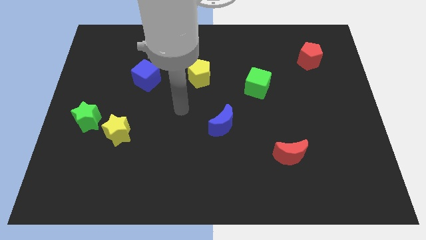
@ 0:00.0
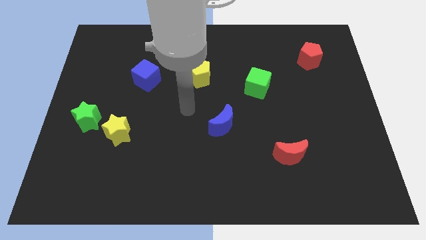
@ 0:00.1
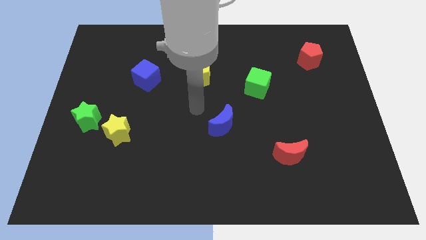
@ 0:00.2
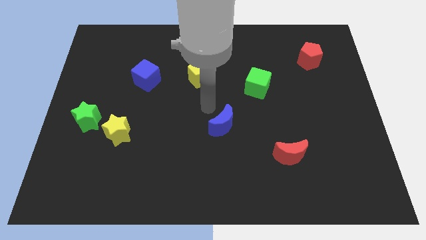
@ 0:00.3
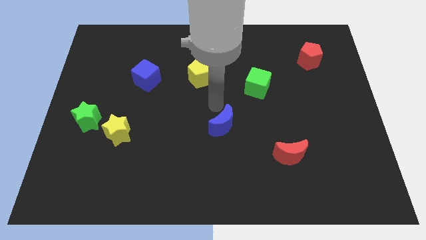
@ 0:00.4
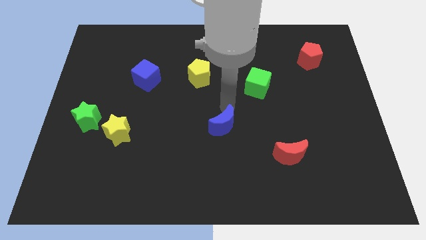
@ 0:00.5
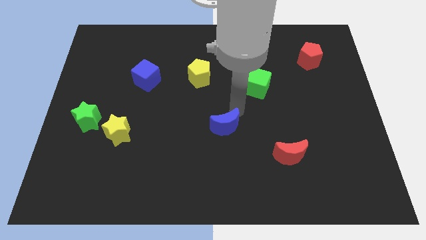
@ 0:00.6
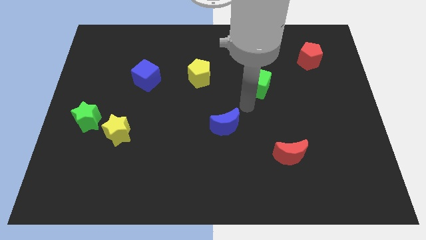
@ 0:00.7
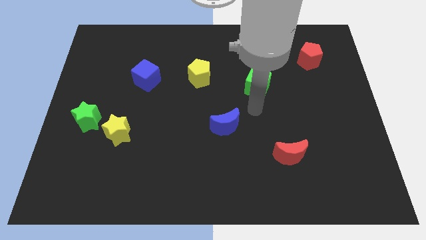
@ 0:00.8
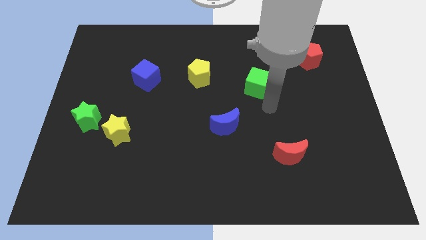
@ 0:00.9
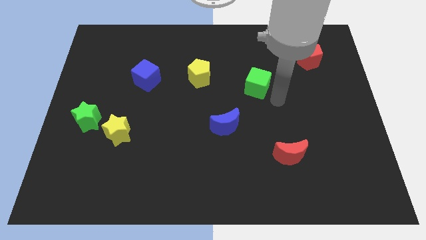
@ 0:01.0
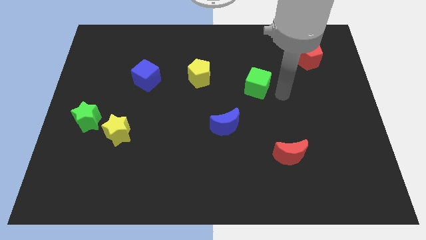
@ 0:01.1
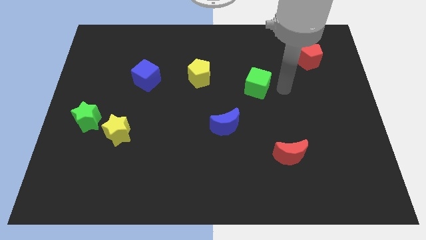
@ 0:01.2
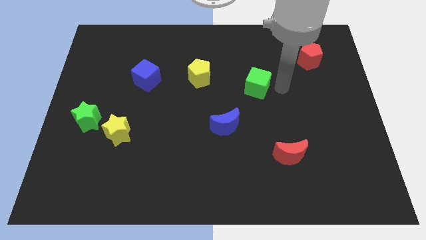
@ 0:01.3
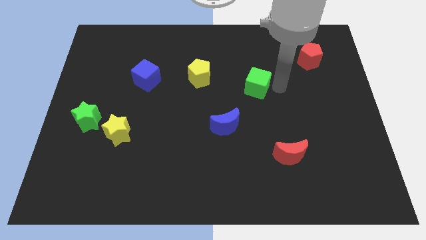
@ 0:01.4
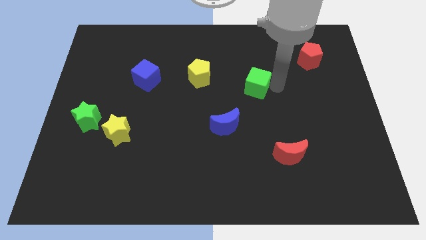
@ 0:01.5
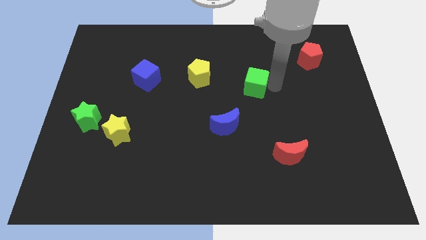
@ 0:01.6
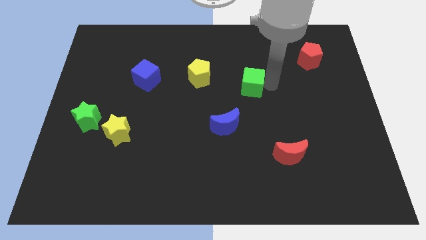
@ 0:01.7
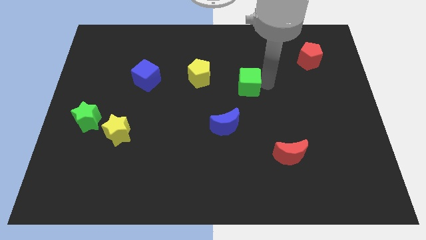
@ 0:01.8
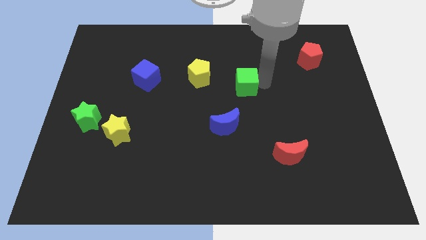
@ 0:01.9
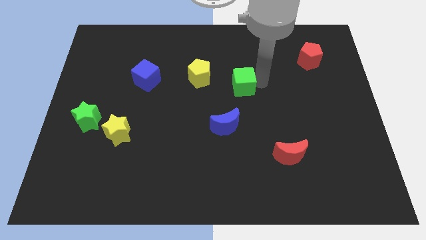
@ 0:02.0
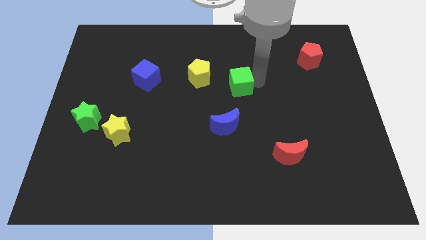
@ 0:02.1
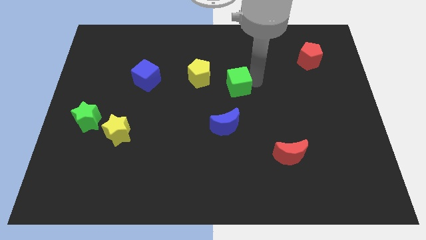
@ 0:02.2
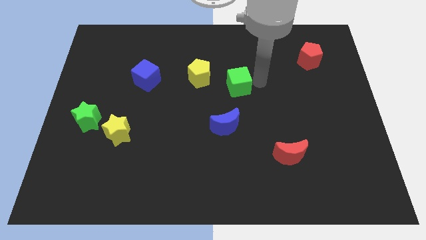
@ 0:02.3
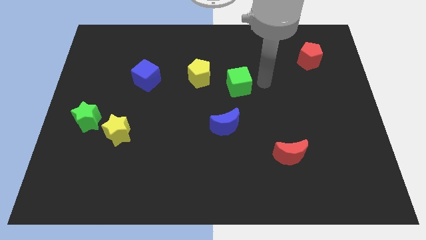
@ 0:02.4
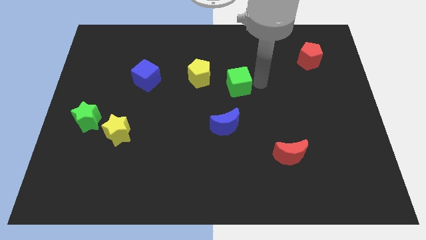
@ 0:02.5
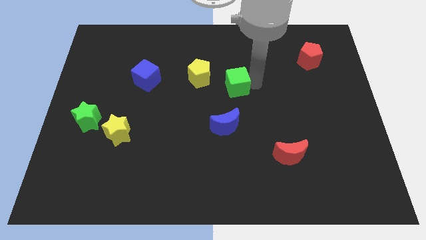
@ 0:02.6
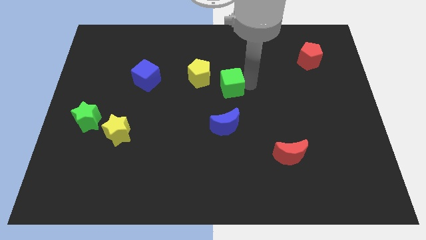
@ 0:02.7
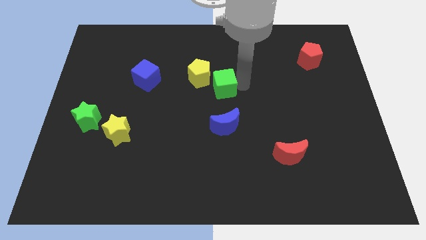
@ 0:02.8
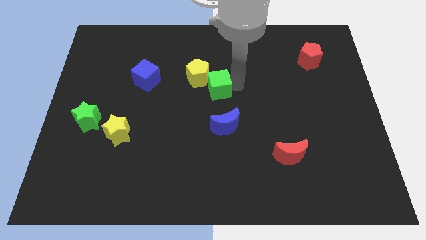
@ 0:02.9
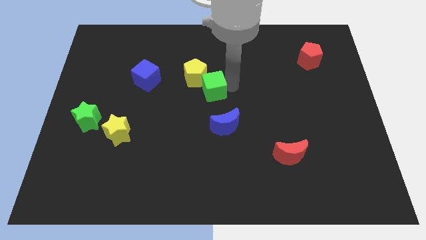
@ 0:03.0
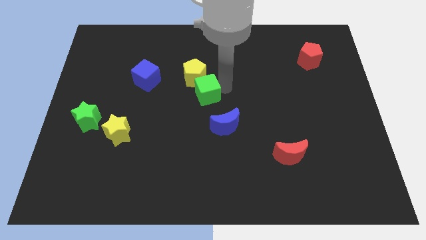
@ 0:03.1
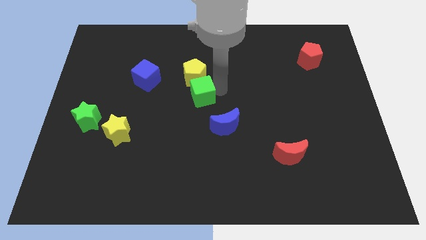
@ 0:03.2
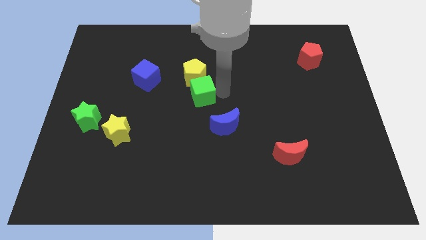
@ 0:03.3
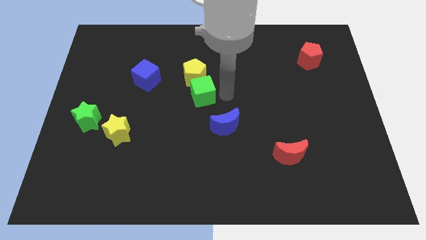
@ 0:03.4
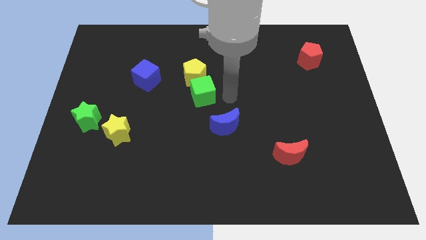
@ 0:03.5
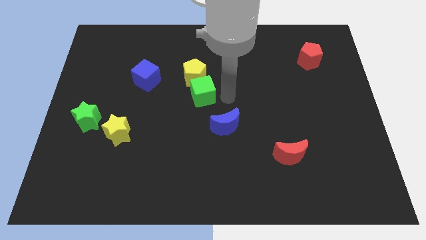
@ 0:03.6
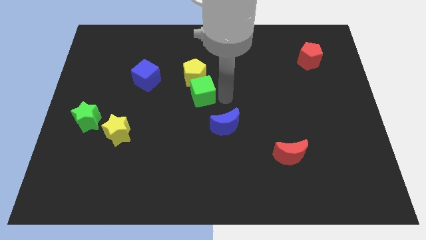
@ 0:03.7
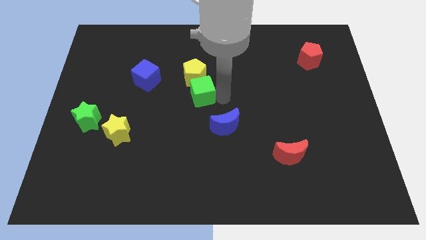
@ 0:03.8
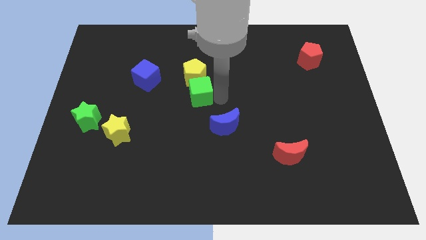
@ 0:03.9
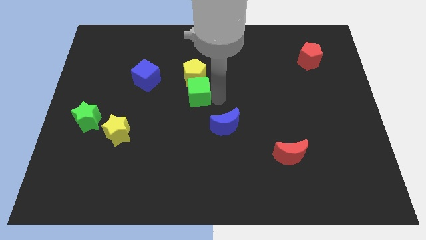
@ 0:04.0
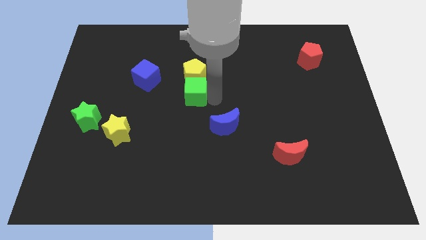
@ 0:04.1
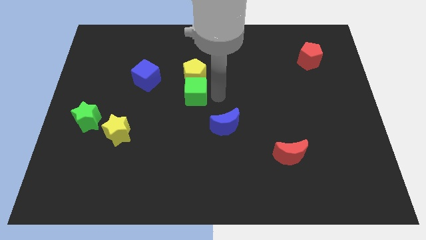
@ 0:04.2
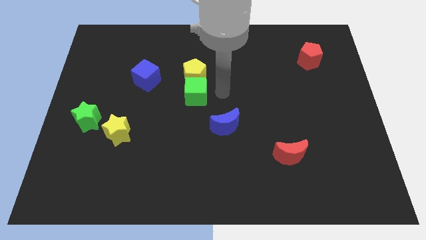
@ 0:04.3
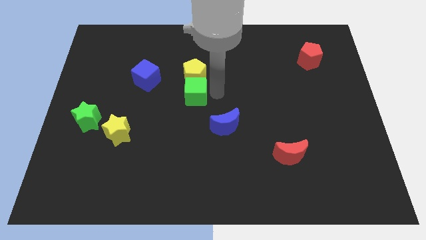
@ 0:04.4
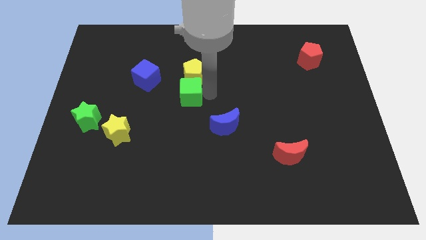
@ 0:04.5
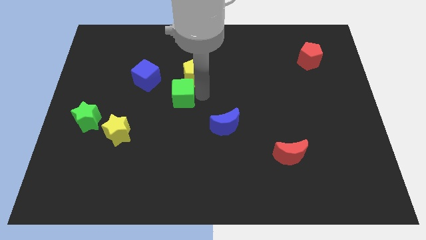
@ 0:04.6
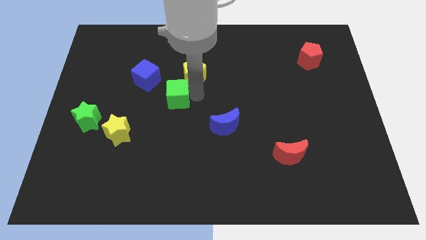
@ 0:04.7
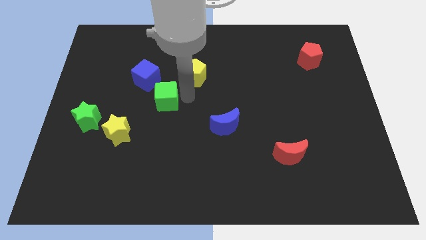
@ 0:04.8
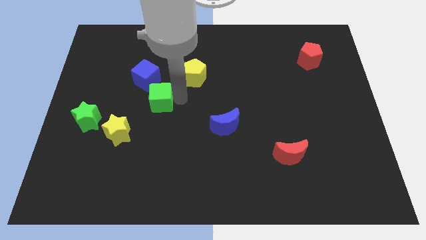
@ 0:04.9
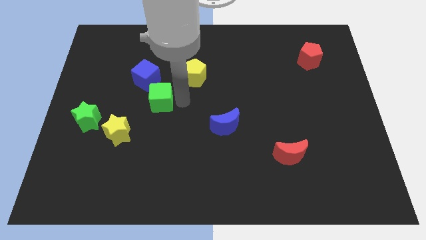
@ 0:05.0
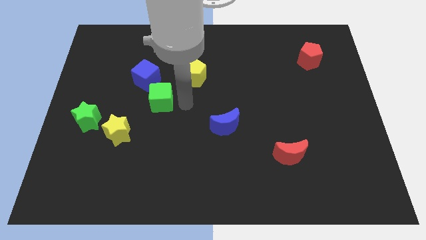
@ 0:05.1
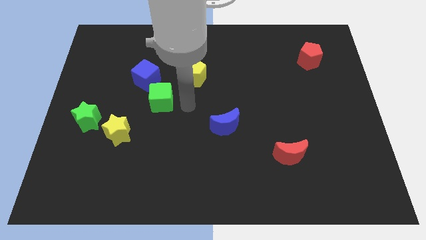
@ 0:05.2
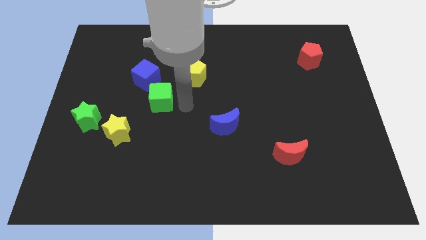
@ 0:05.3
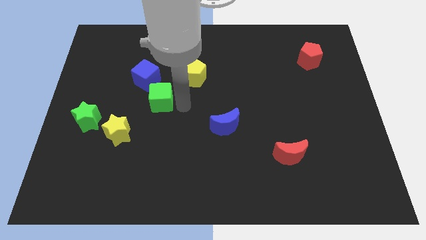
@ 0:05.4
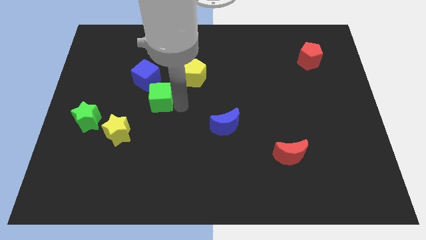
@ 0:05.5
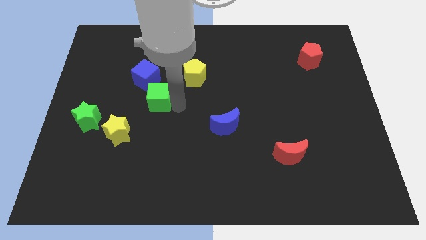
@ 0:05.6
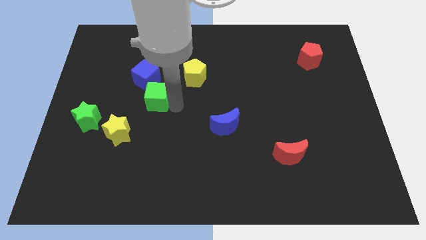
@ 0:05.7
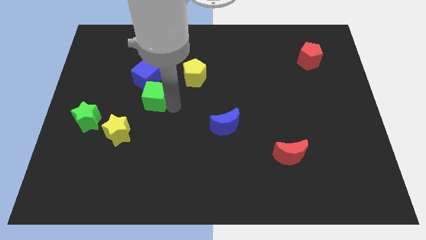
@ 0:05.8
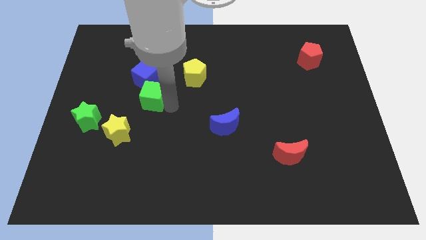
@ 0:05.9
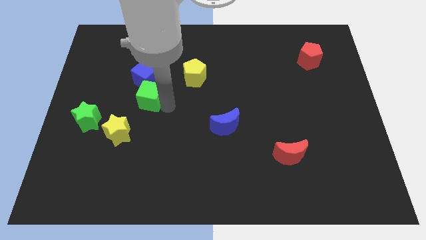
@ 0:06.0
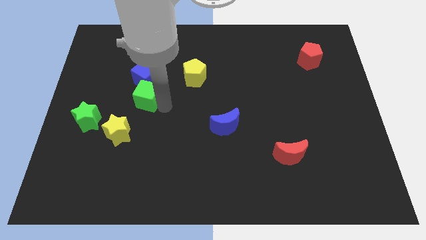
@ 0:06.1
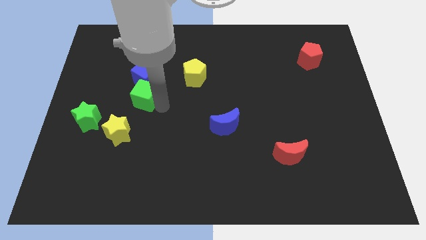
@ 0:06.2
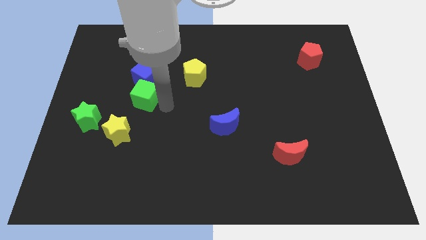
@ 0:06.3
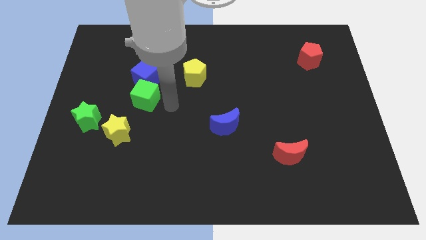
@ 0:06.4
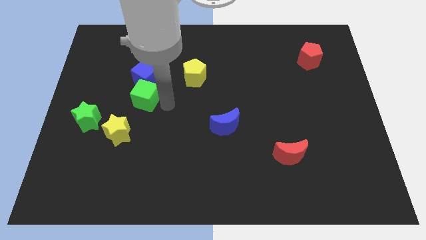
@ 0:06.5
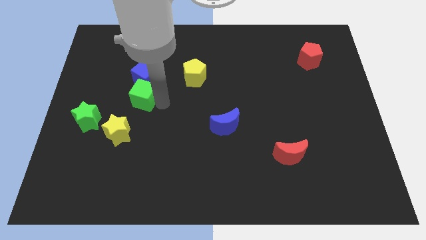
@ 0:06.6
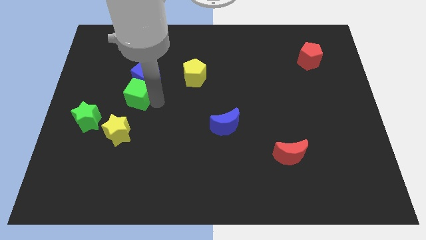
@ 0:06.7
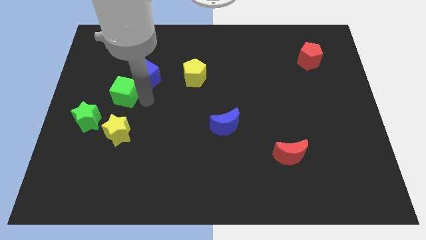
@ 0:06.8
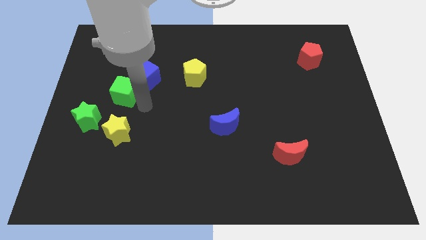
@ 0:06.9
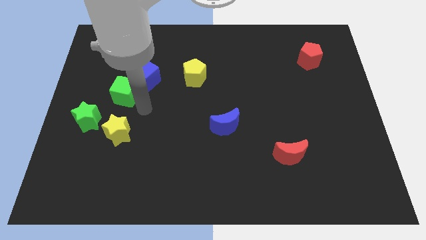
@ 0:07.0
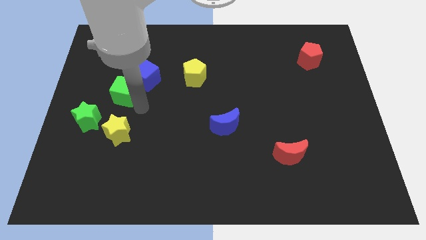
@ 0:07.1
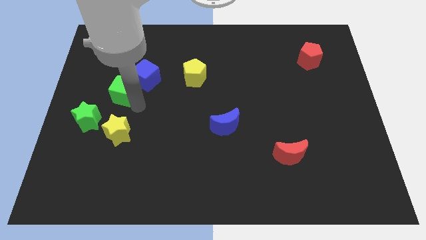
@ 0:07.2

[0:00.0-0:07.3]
slide the green cube just left of the blue cube
